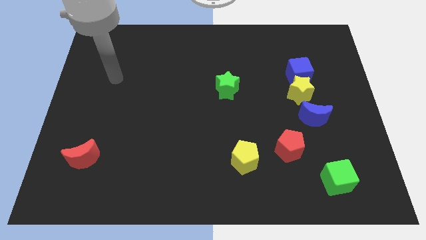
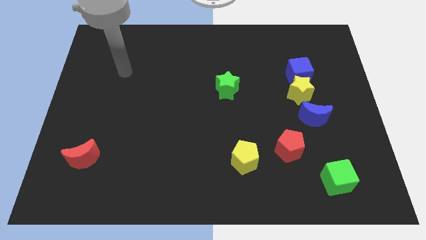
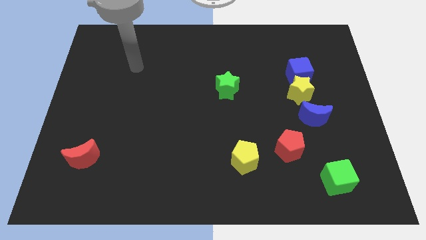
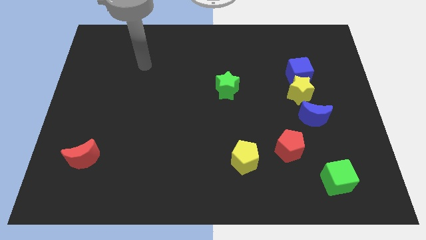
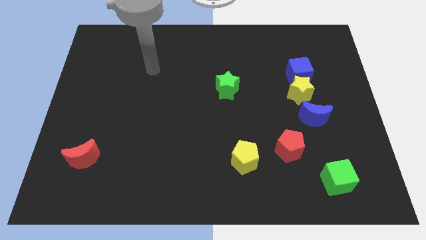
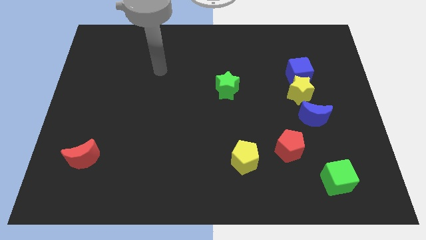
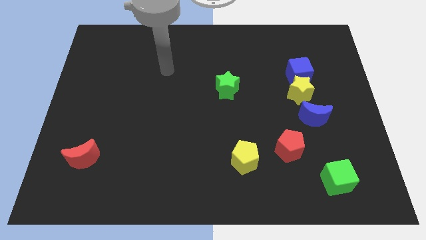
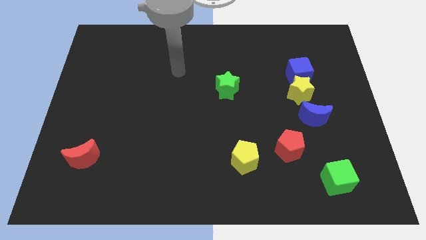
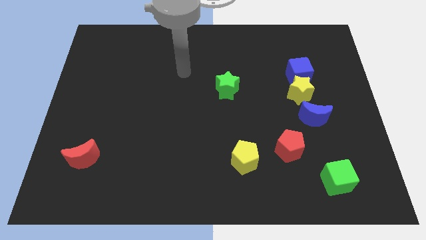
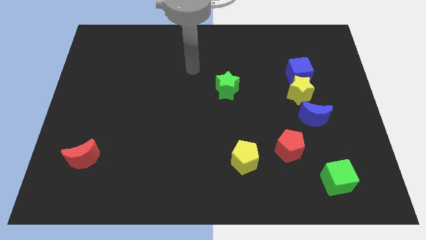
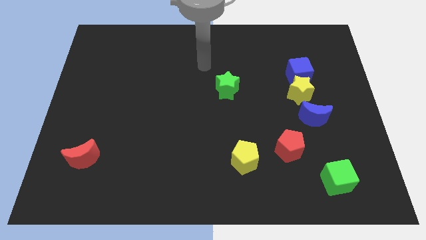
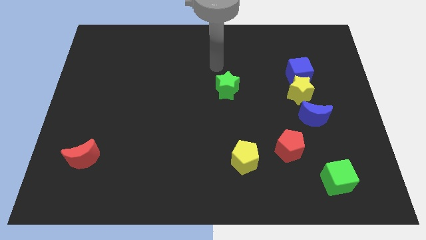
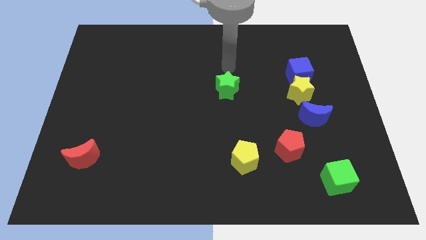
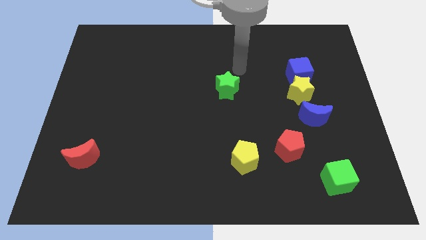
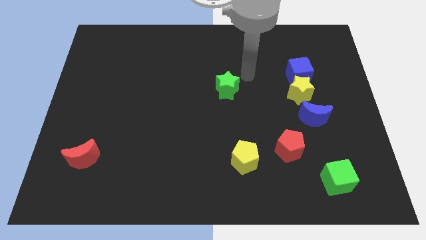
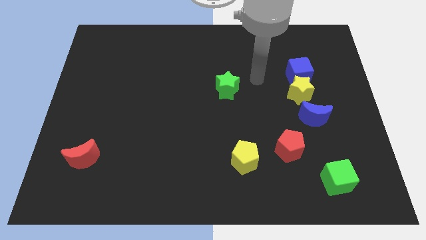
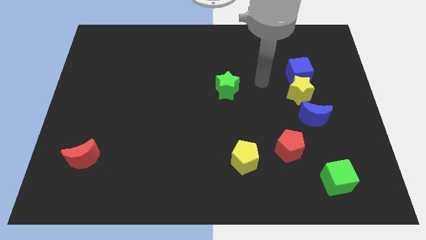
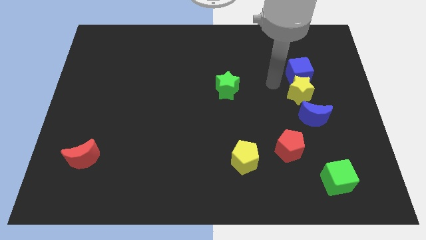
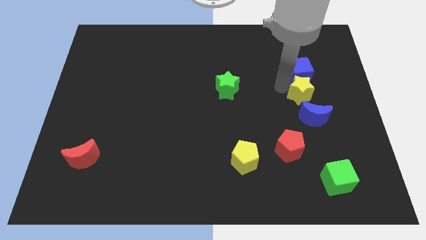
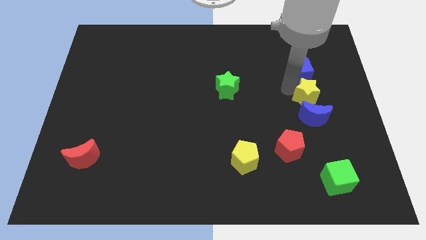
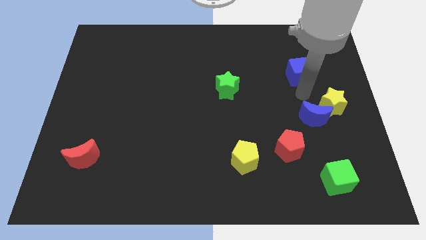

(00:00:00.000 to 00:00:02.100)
separate the blue cube from the yellow star

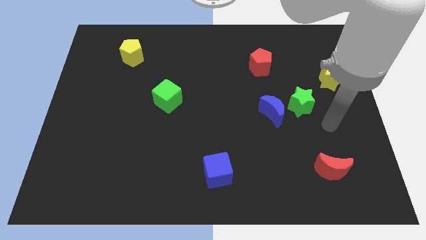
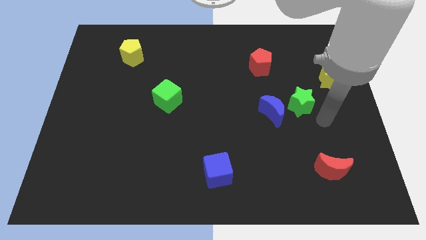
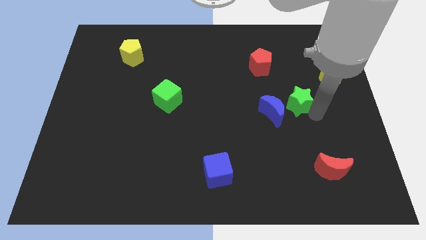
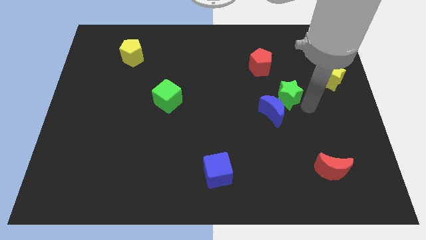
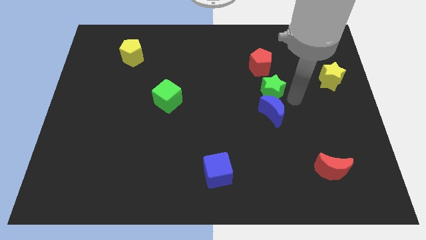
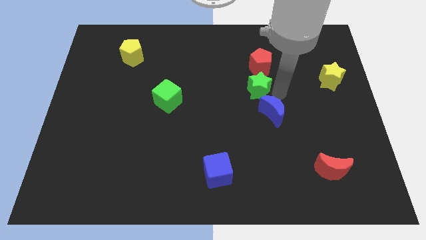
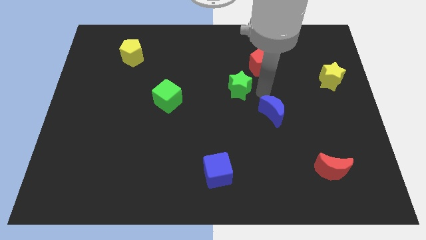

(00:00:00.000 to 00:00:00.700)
pull the blue moon apart from the green star

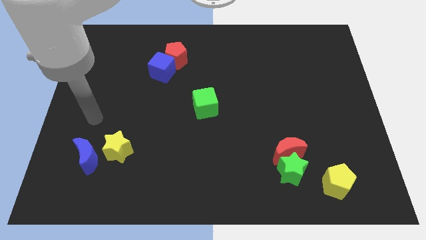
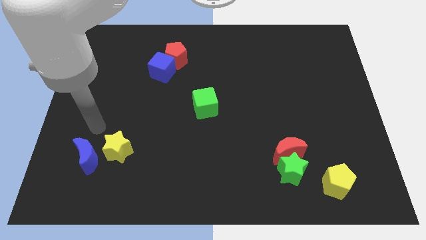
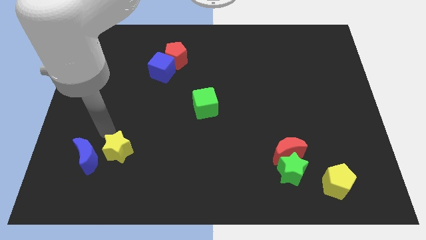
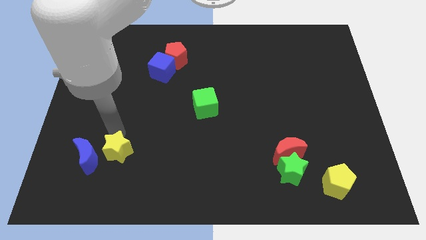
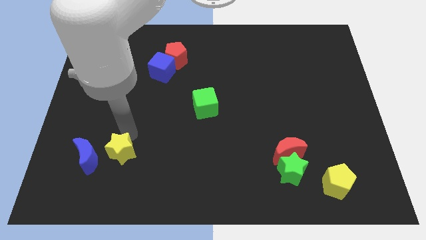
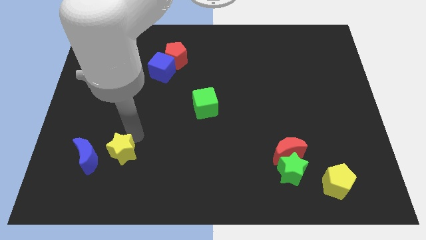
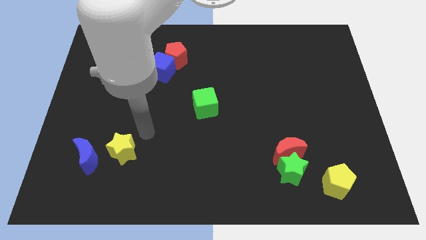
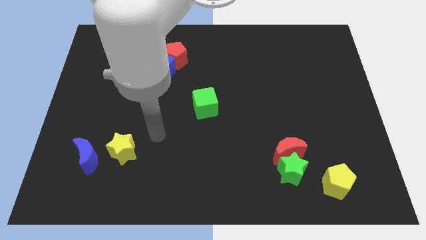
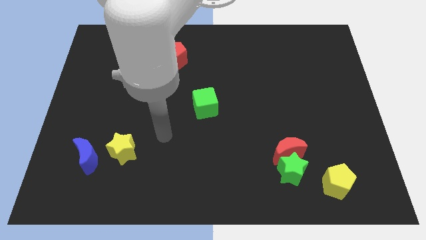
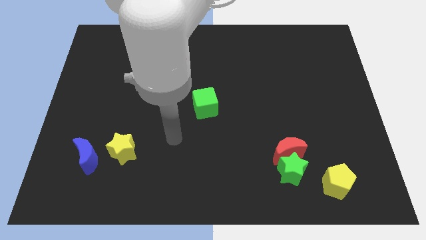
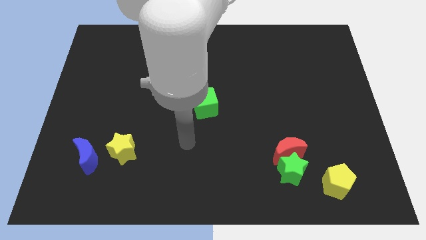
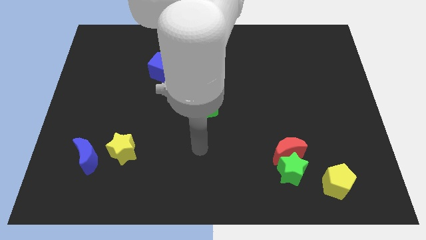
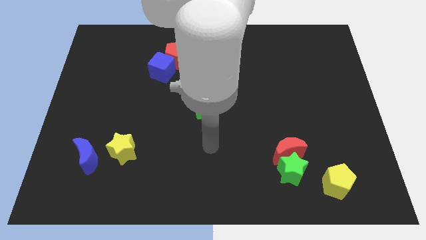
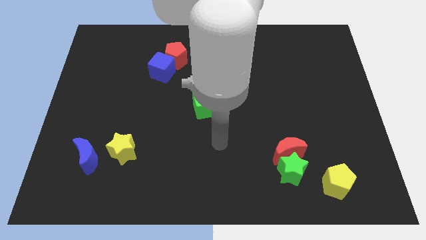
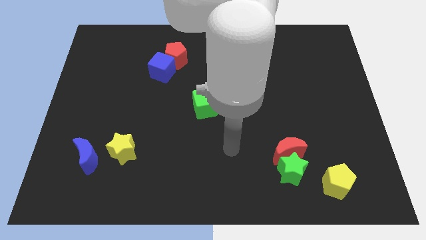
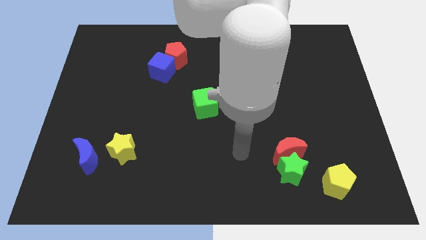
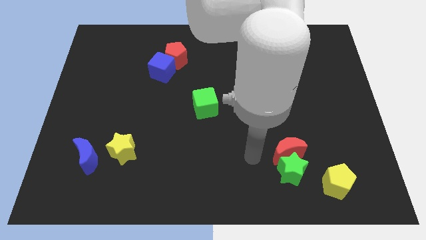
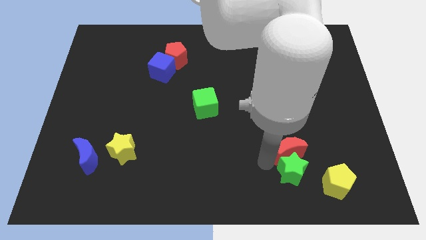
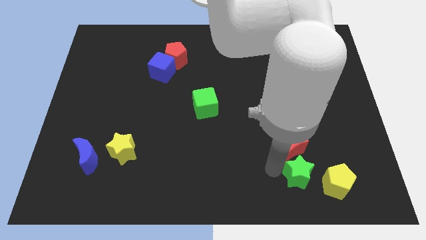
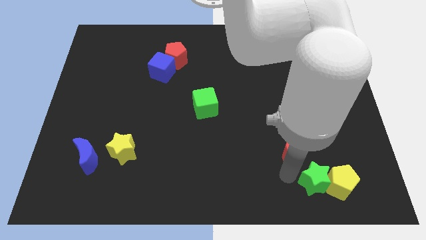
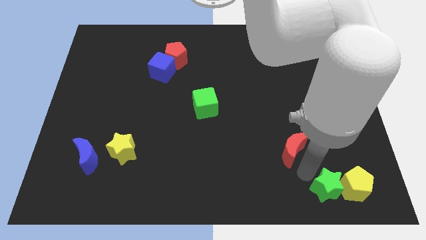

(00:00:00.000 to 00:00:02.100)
pull the red moon apart from the green star

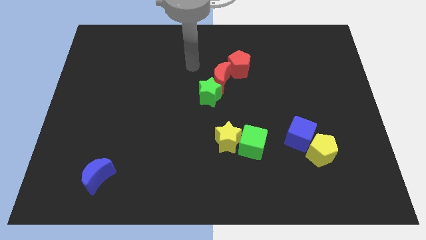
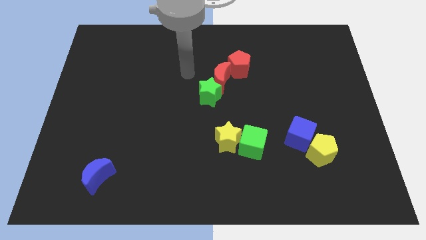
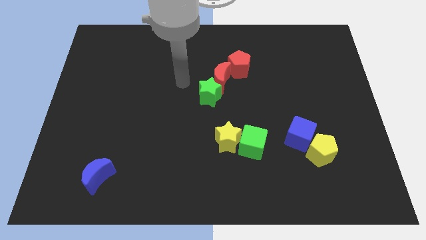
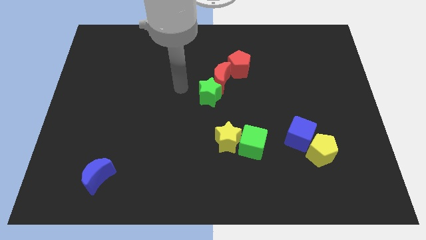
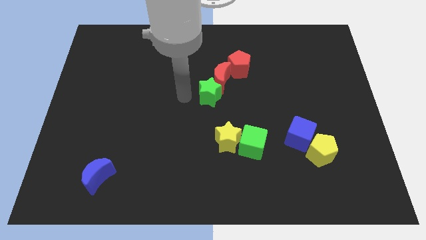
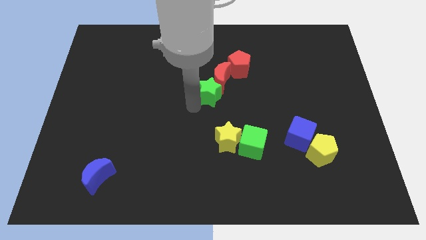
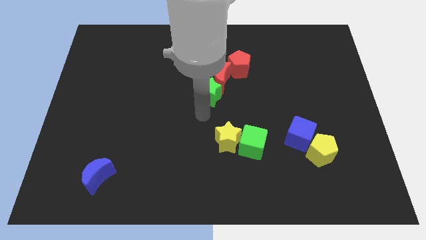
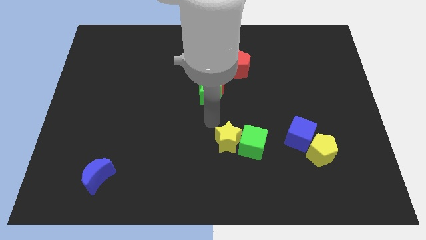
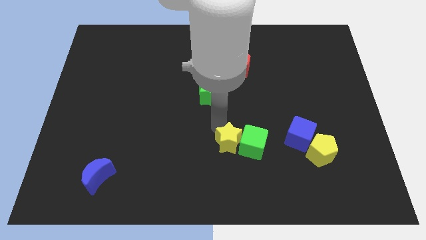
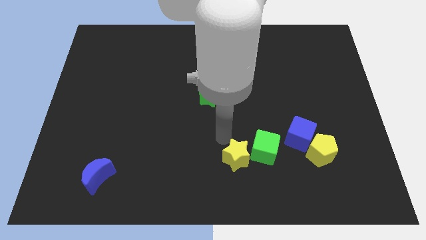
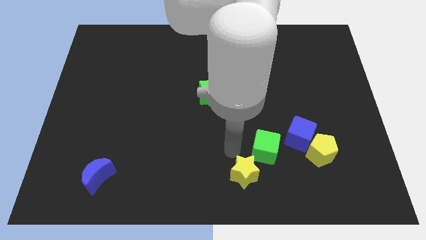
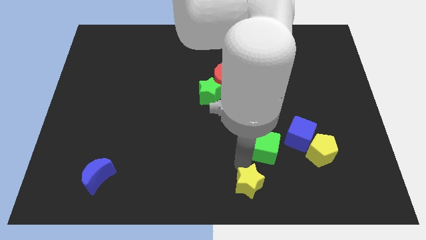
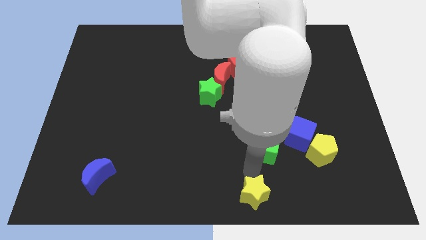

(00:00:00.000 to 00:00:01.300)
separate the green cube from the yellow star

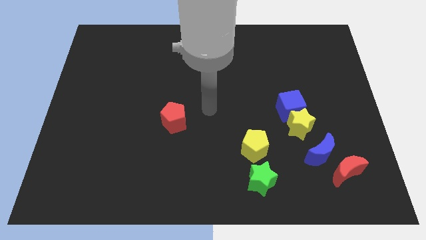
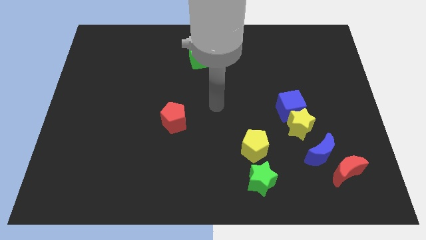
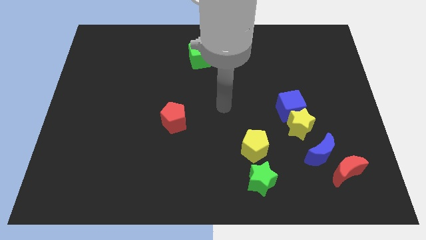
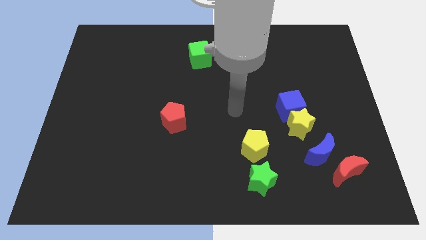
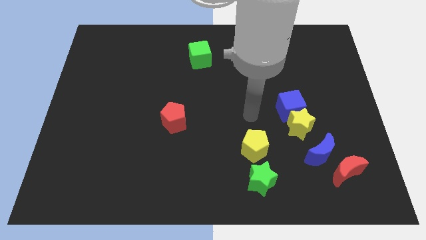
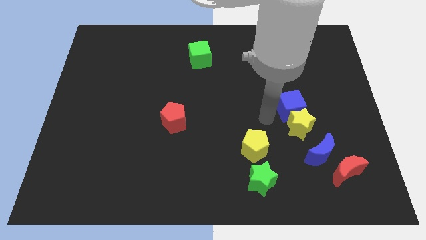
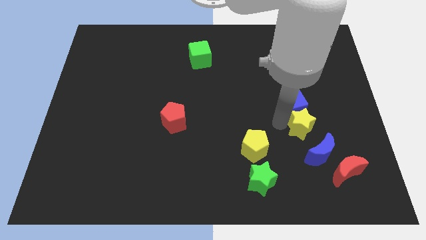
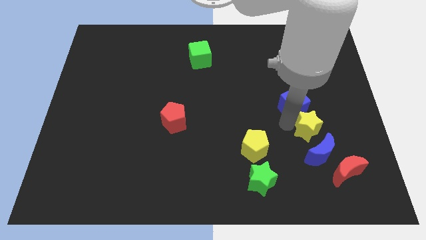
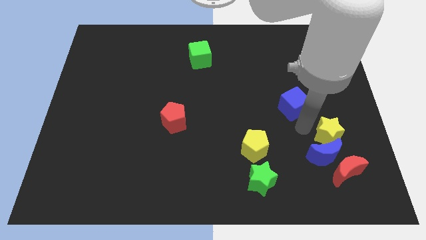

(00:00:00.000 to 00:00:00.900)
move the blue cube away from the yellow star

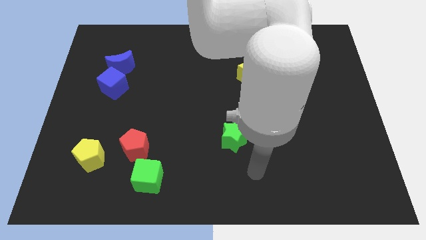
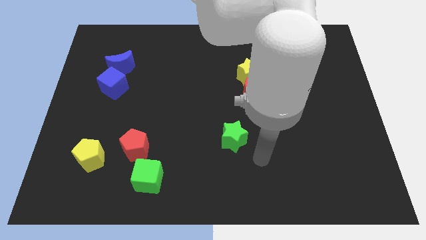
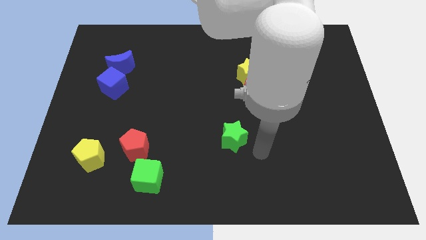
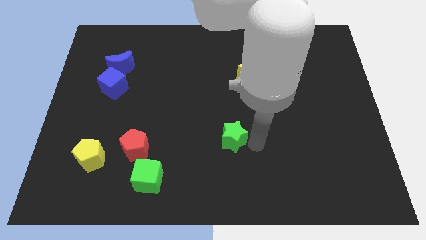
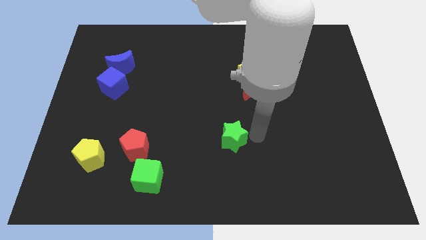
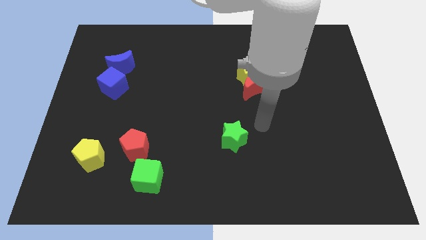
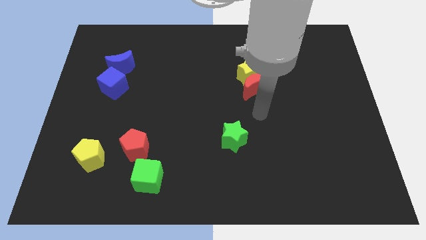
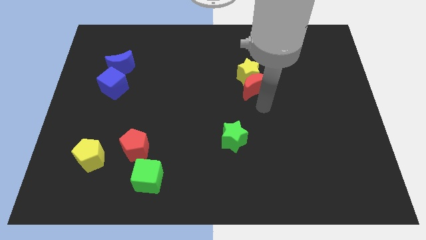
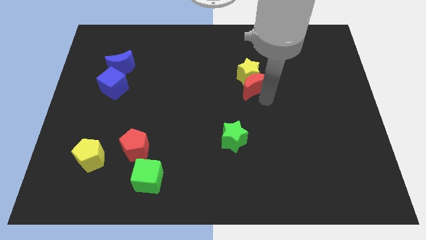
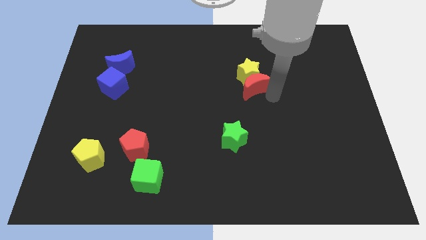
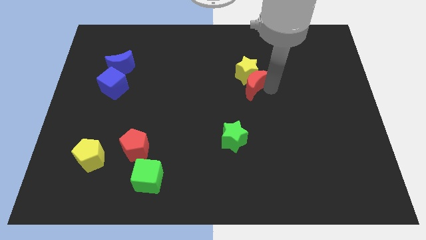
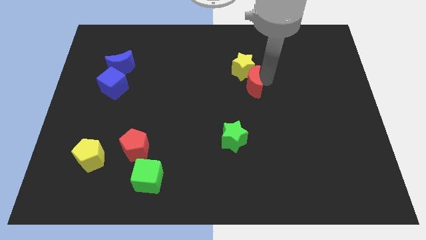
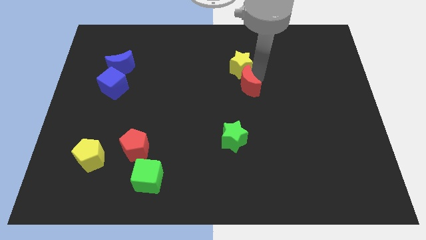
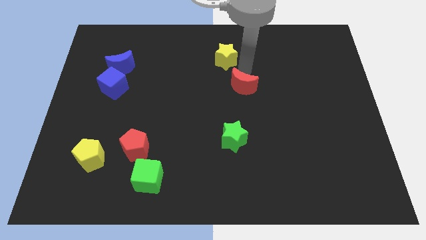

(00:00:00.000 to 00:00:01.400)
separate the red moon from the yellow star

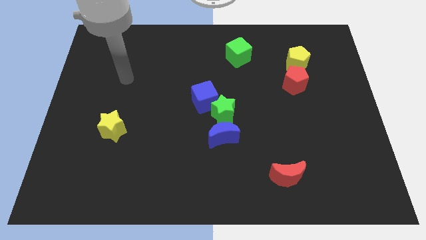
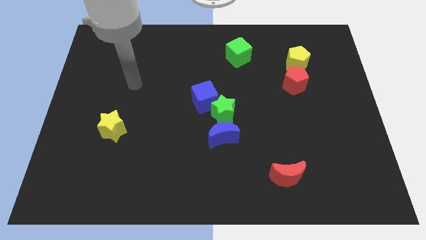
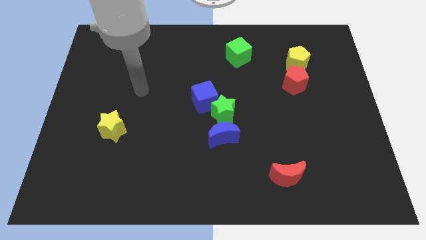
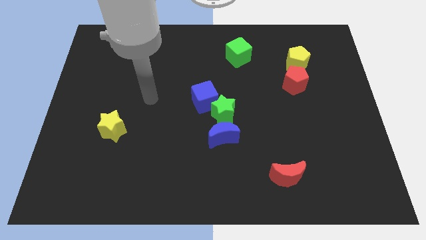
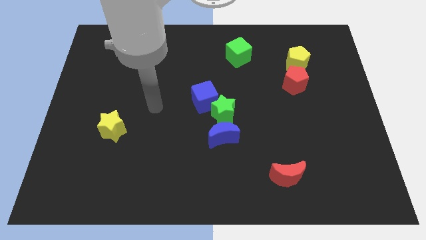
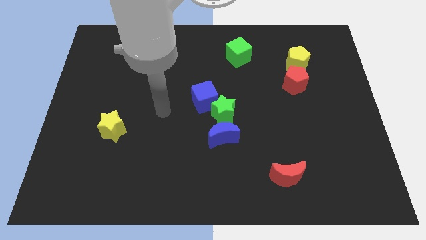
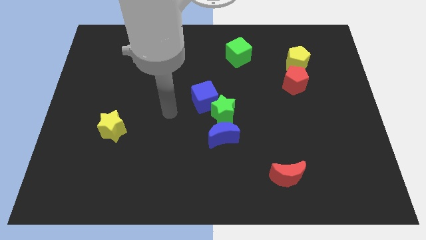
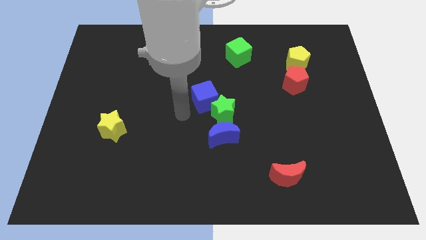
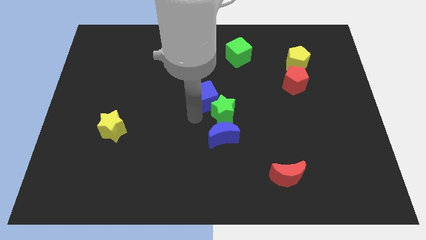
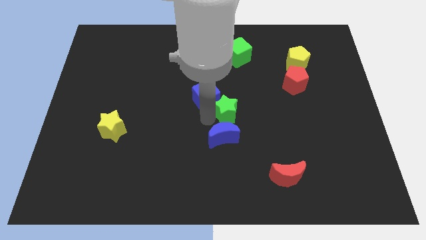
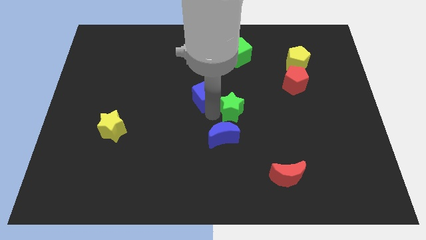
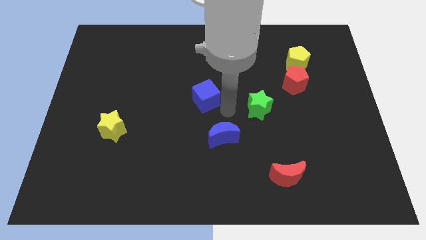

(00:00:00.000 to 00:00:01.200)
pull the blue cube apart from the green star
